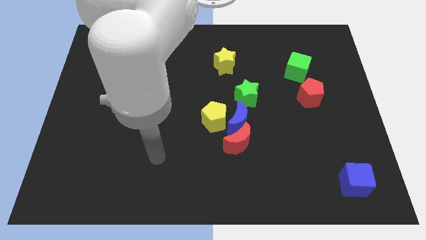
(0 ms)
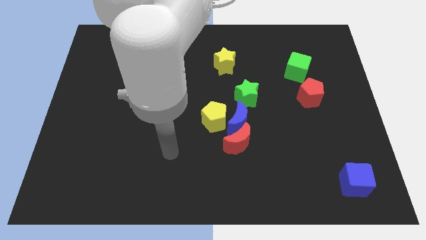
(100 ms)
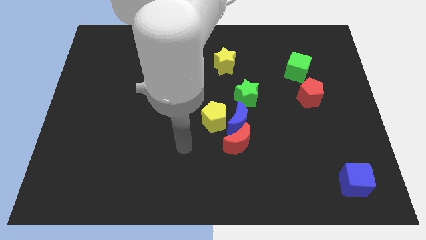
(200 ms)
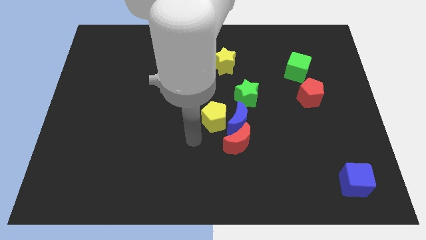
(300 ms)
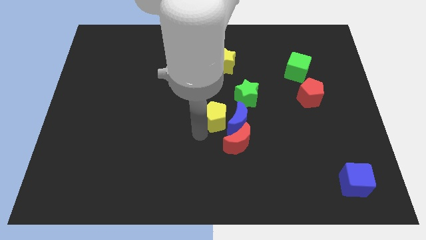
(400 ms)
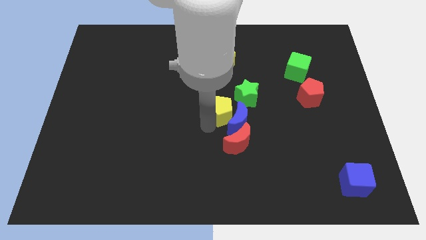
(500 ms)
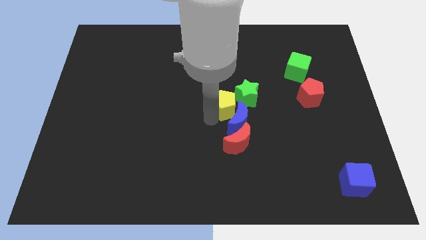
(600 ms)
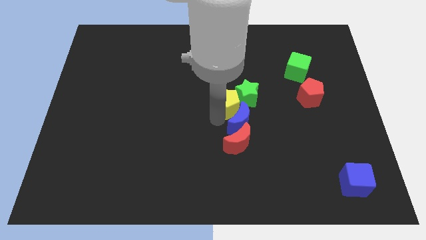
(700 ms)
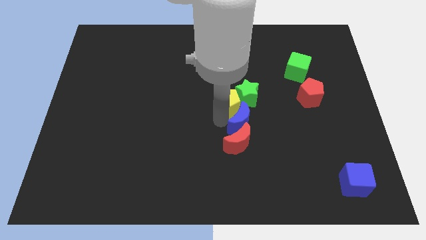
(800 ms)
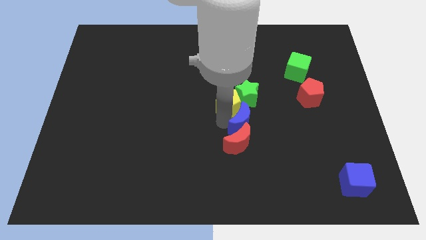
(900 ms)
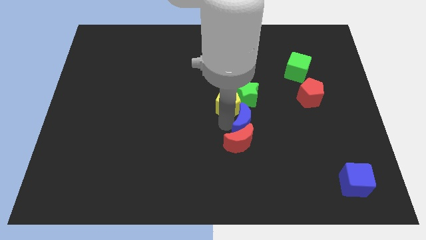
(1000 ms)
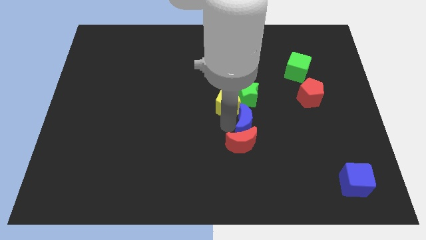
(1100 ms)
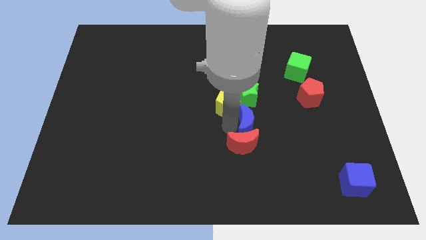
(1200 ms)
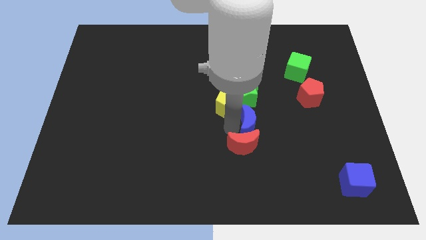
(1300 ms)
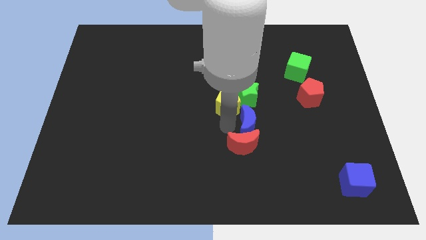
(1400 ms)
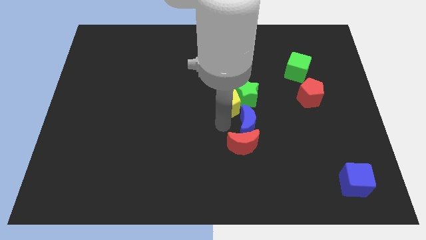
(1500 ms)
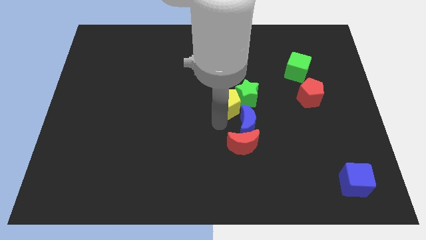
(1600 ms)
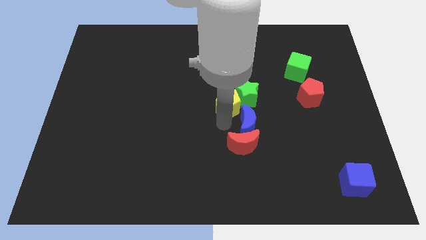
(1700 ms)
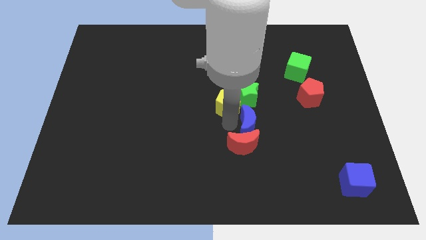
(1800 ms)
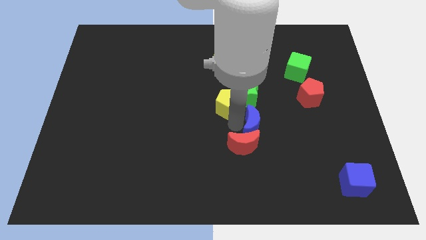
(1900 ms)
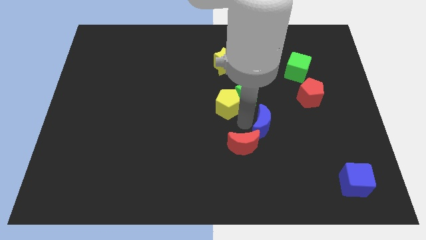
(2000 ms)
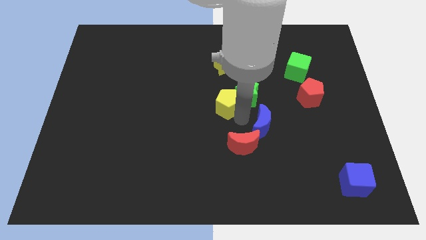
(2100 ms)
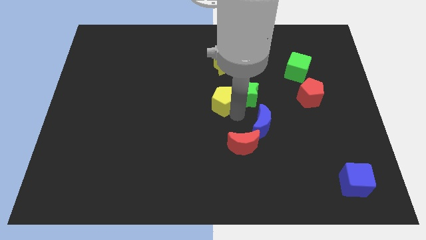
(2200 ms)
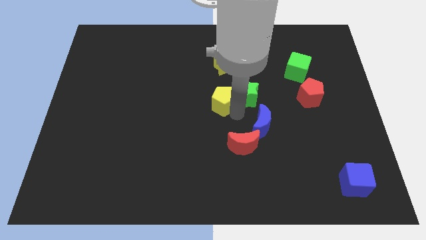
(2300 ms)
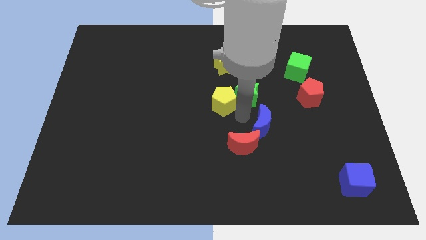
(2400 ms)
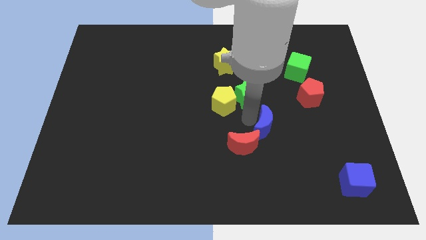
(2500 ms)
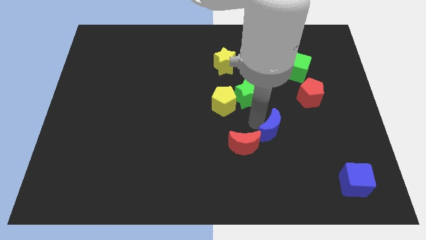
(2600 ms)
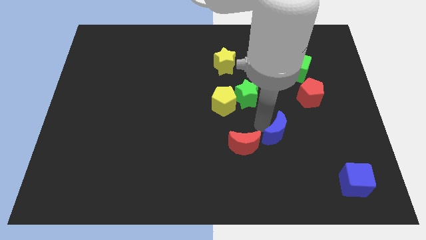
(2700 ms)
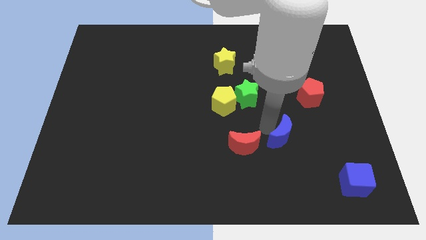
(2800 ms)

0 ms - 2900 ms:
pull the blue moon apart from the red moon, yellow pentagon, and green star

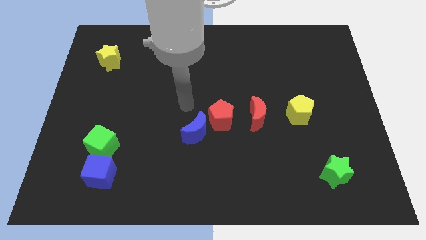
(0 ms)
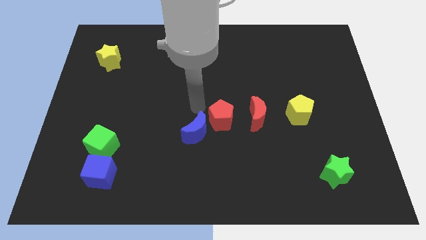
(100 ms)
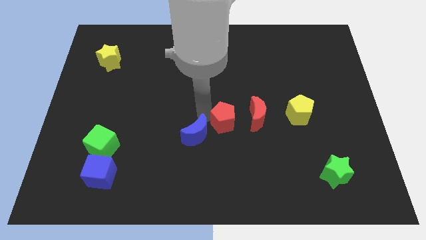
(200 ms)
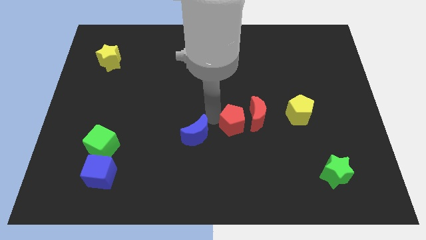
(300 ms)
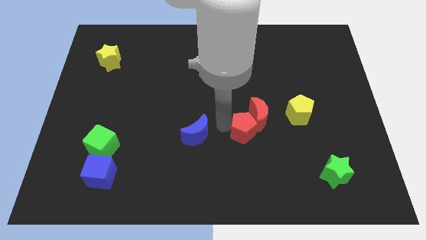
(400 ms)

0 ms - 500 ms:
pull the blue moon apart from the red pentagon

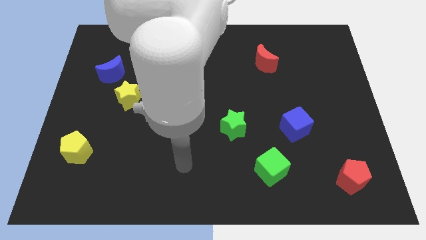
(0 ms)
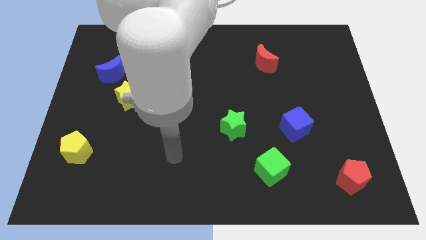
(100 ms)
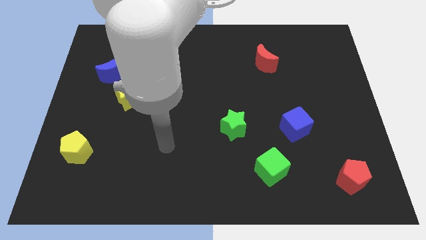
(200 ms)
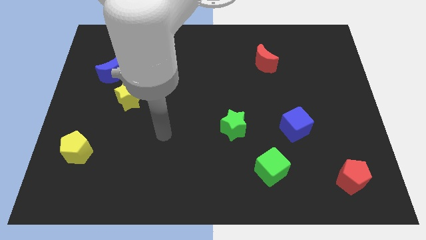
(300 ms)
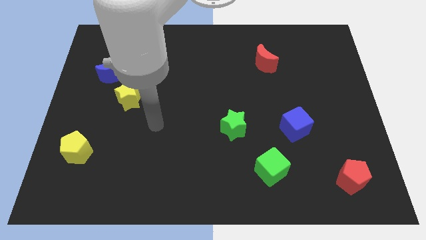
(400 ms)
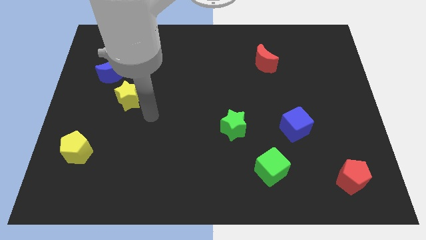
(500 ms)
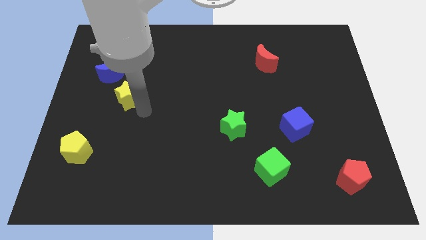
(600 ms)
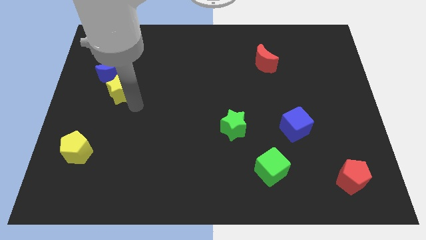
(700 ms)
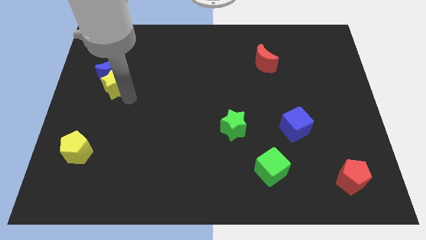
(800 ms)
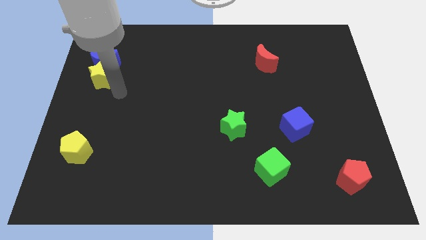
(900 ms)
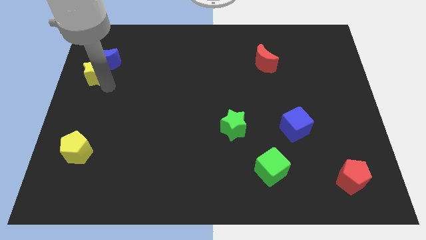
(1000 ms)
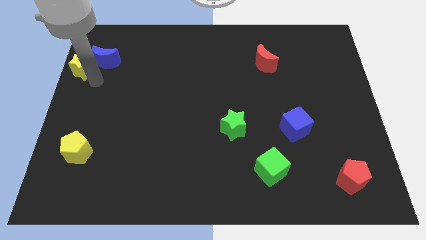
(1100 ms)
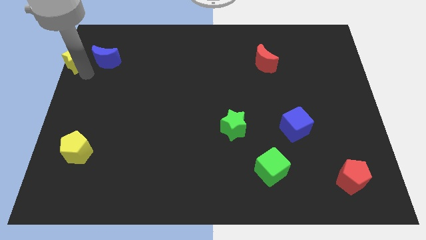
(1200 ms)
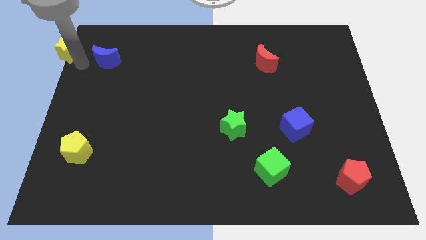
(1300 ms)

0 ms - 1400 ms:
separate the blue moon from the yellow star

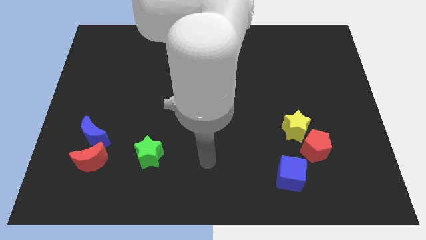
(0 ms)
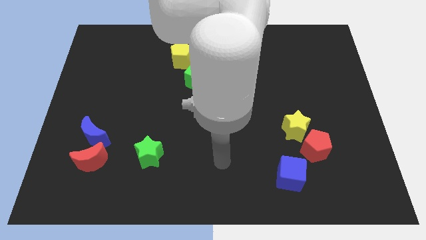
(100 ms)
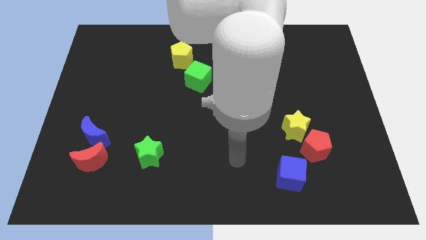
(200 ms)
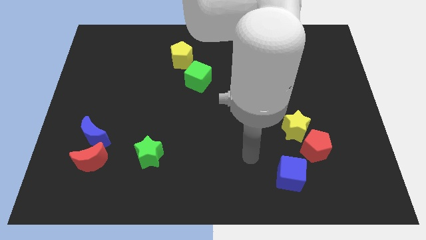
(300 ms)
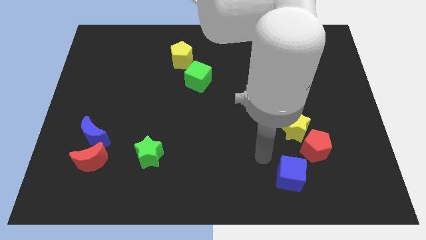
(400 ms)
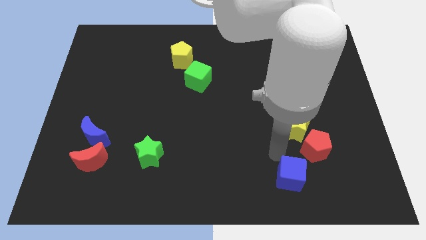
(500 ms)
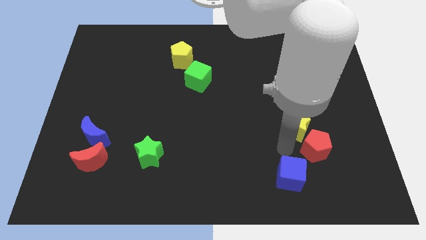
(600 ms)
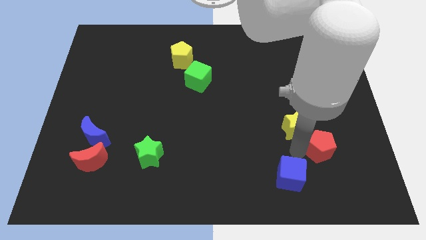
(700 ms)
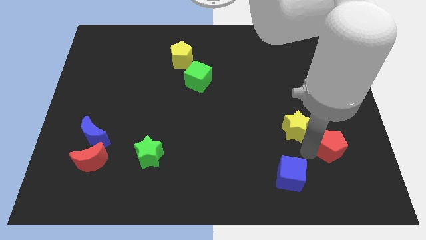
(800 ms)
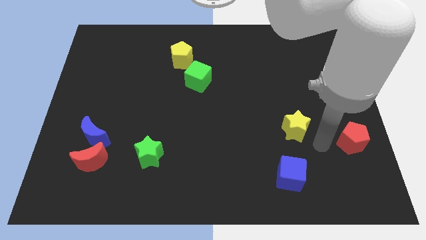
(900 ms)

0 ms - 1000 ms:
move the yellow star away from the red pentagon

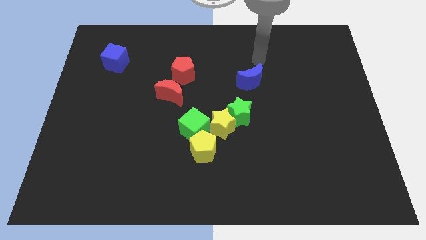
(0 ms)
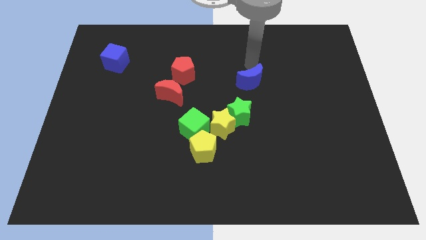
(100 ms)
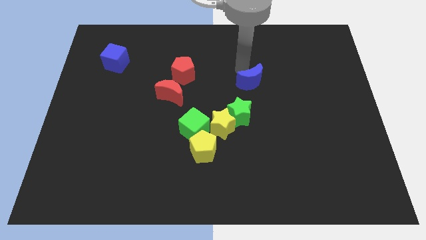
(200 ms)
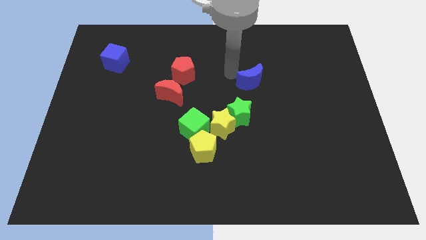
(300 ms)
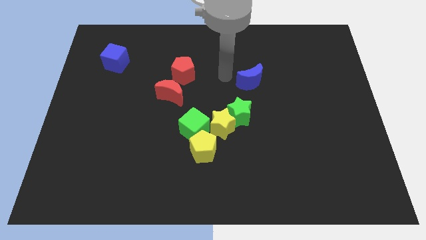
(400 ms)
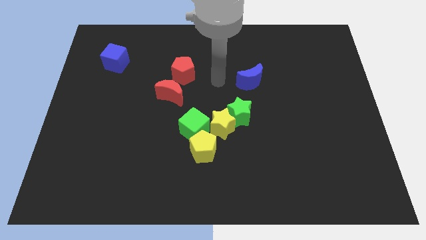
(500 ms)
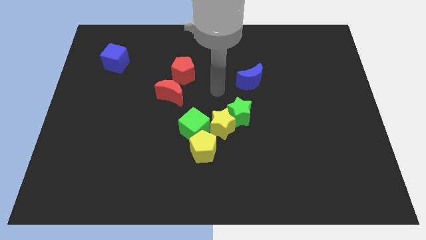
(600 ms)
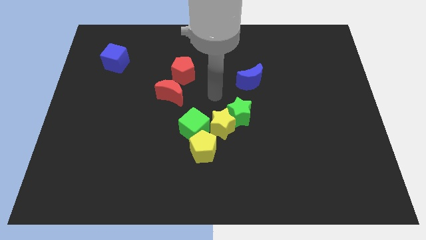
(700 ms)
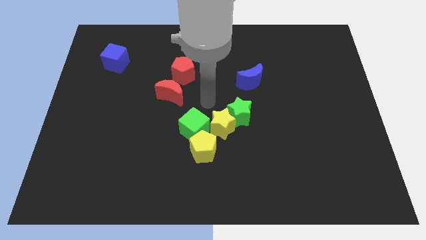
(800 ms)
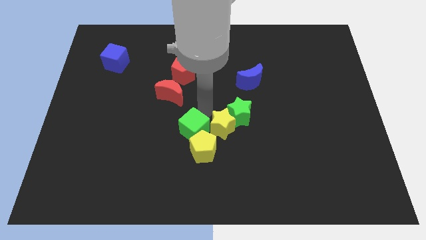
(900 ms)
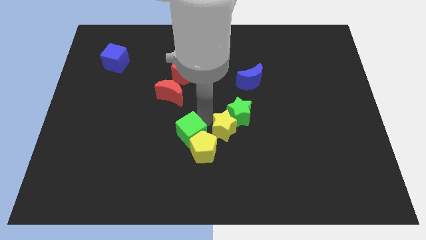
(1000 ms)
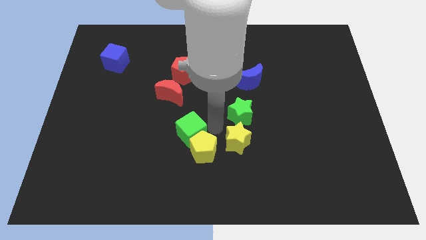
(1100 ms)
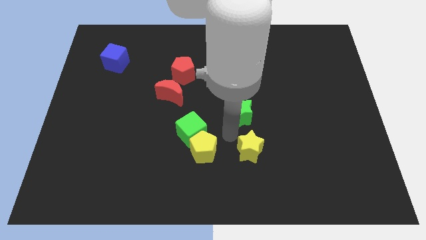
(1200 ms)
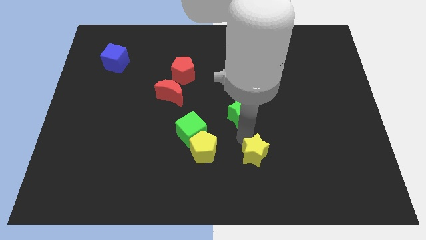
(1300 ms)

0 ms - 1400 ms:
separate the green star from the yellow star

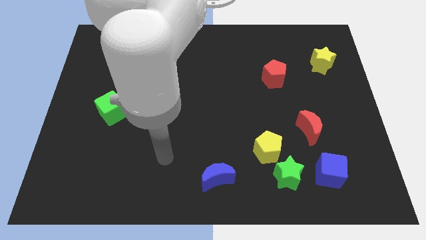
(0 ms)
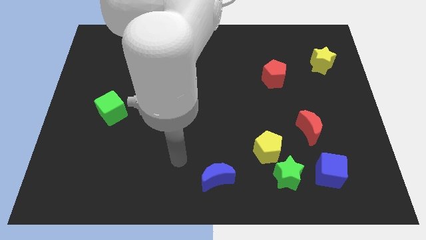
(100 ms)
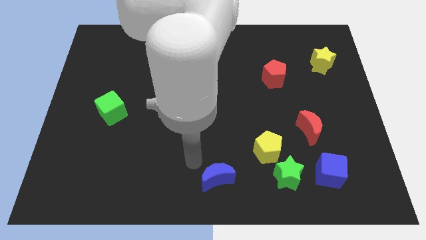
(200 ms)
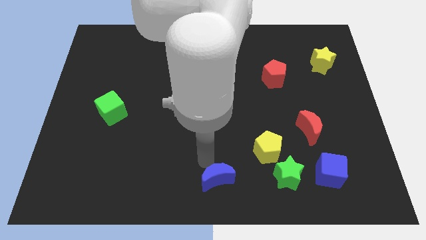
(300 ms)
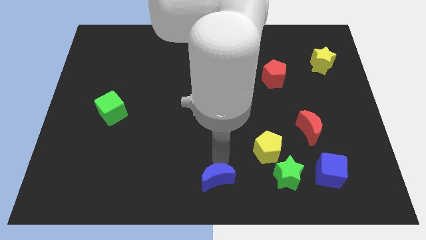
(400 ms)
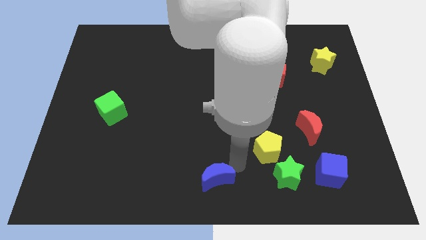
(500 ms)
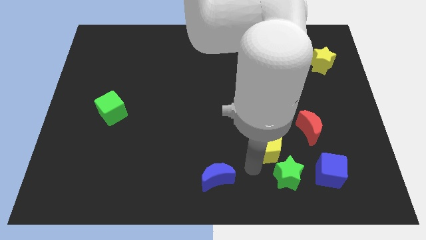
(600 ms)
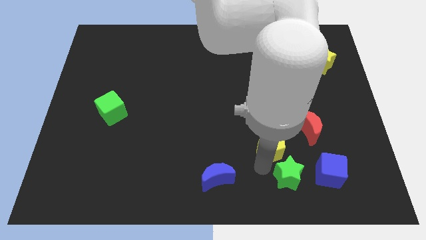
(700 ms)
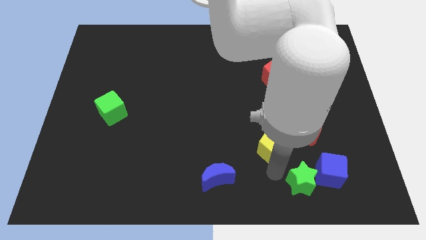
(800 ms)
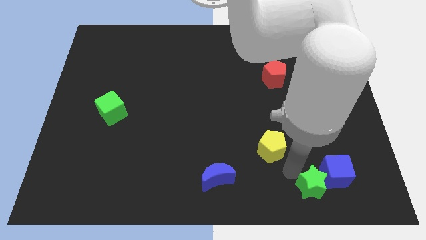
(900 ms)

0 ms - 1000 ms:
separate the yellow pentagon from the green star

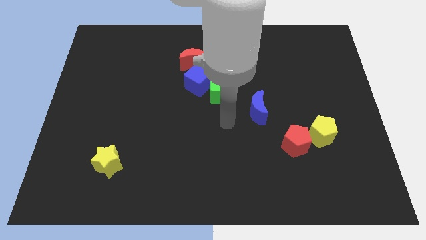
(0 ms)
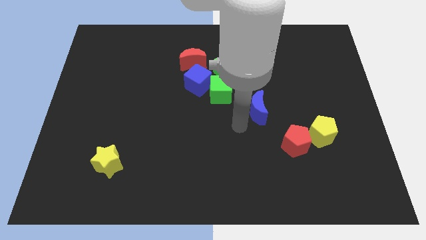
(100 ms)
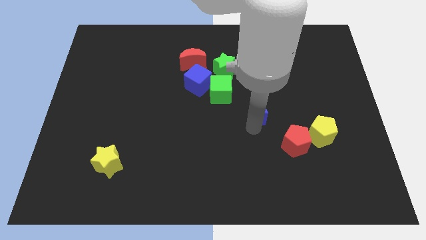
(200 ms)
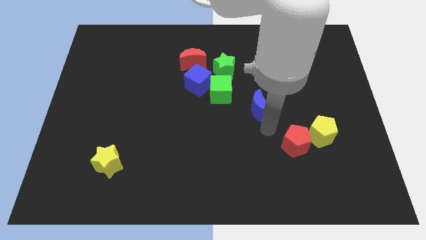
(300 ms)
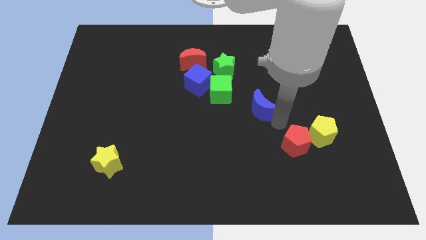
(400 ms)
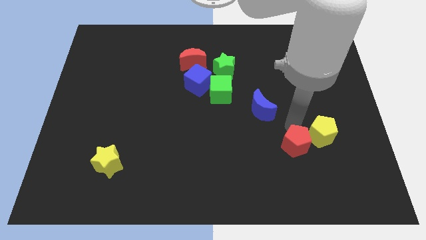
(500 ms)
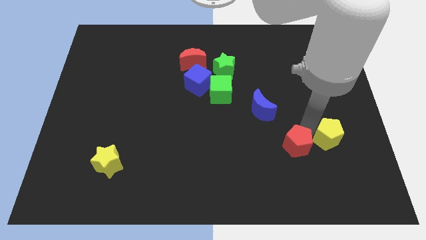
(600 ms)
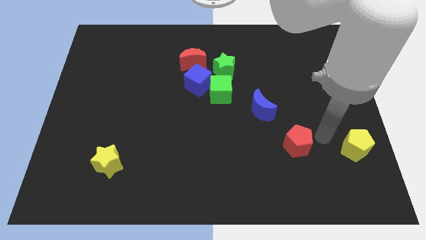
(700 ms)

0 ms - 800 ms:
move the red pentagon away from the yellow pentagon

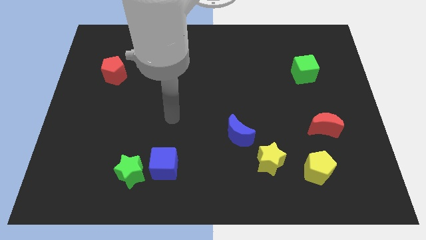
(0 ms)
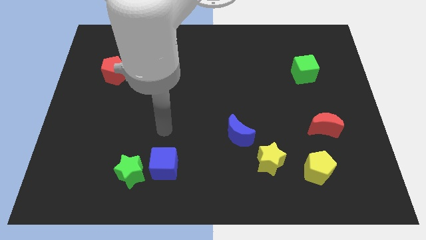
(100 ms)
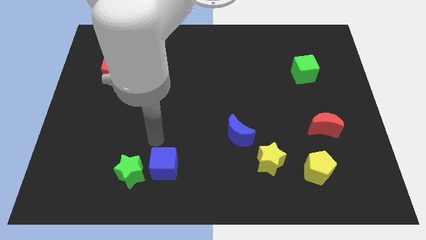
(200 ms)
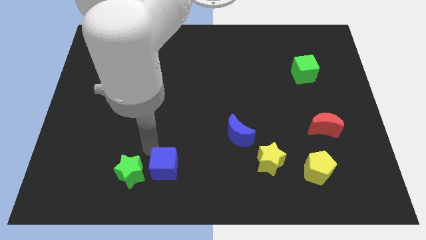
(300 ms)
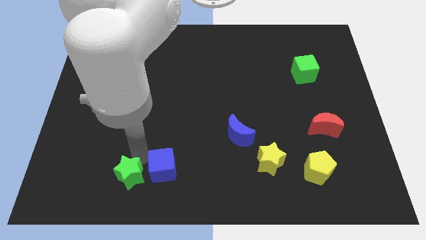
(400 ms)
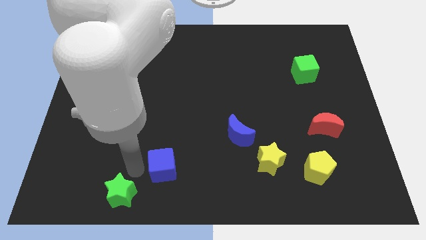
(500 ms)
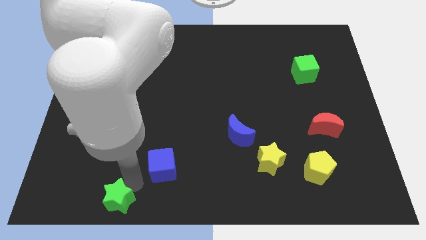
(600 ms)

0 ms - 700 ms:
separate the blue cube from the green star
